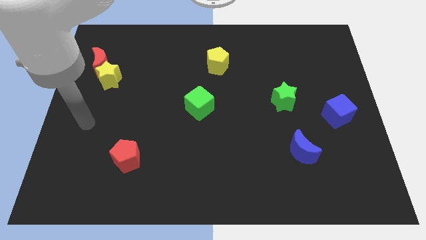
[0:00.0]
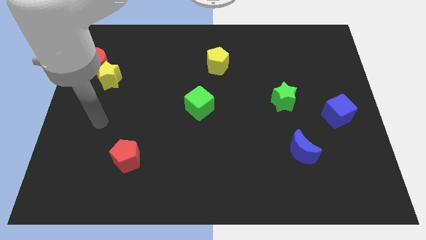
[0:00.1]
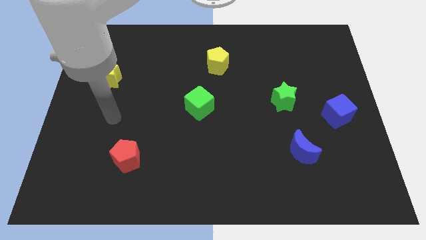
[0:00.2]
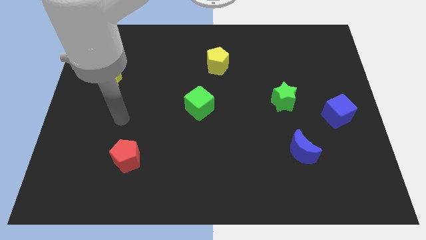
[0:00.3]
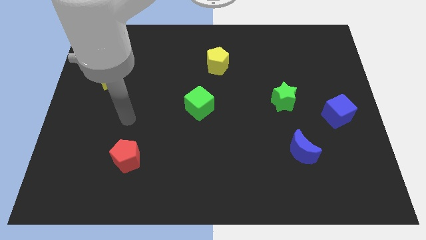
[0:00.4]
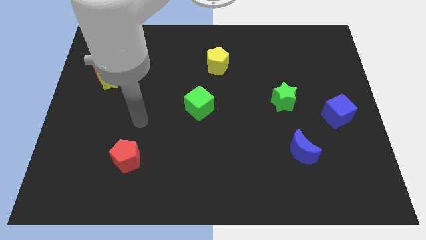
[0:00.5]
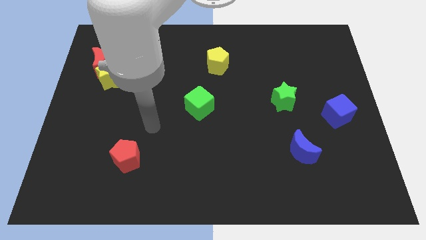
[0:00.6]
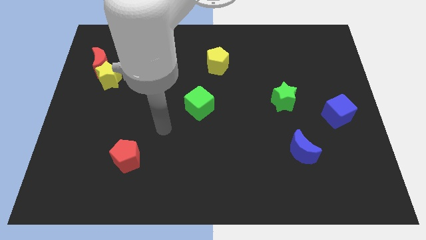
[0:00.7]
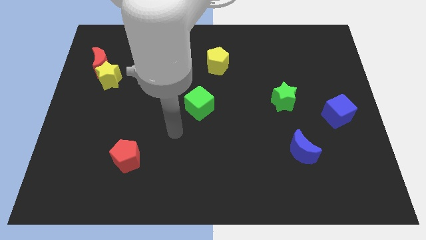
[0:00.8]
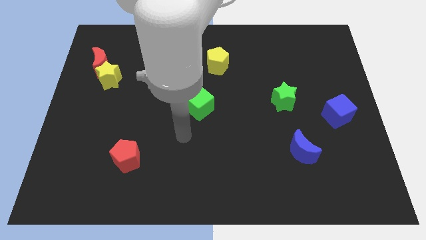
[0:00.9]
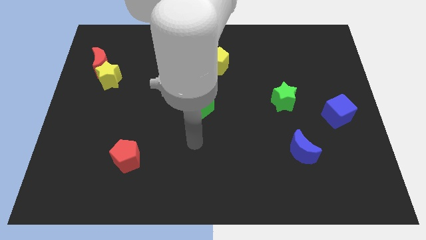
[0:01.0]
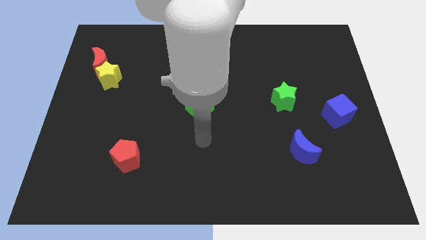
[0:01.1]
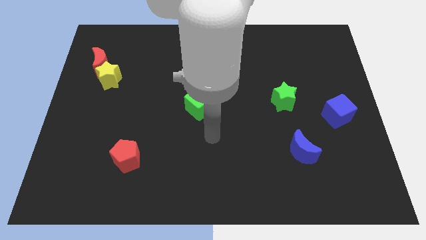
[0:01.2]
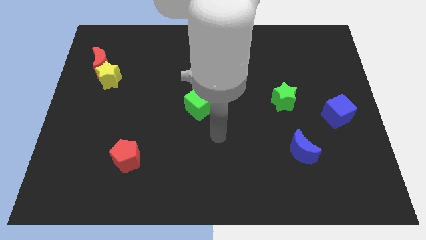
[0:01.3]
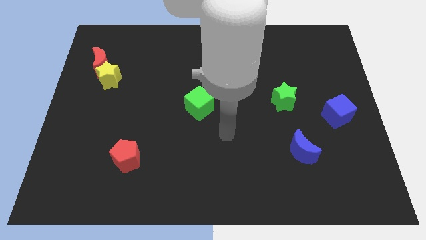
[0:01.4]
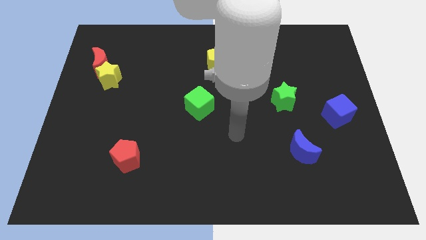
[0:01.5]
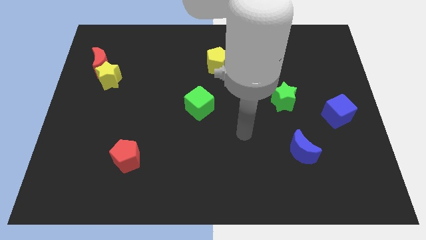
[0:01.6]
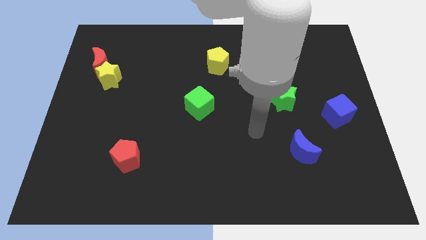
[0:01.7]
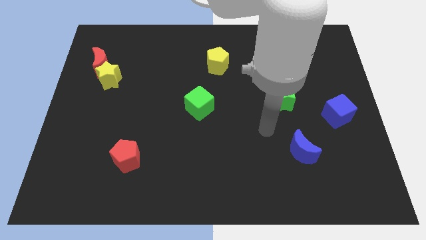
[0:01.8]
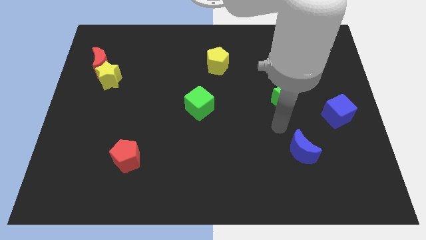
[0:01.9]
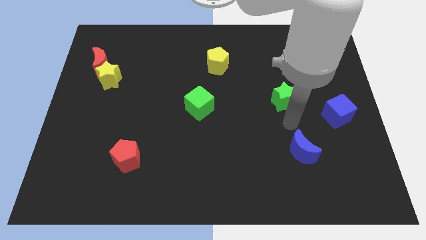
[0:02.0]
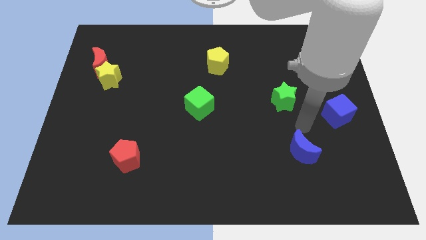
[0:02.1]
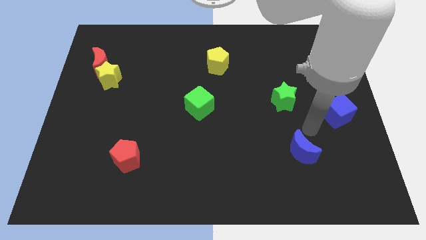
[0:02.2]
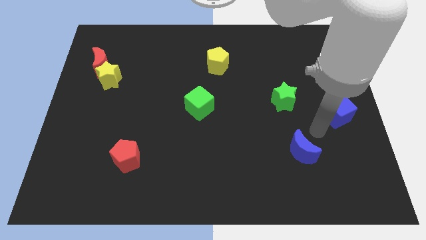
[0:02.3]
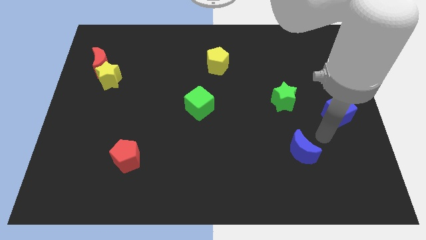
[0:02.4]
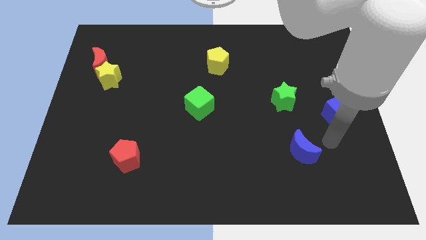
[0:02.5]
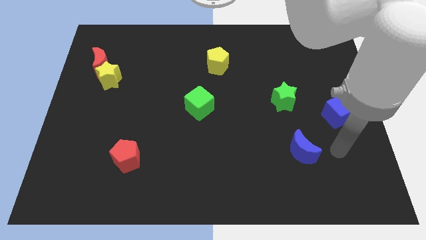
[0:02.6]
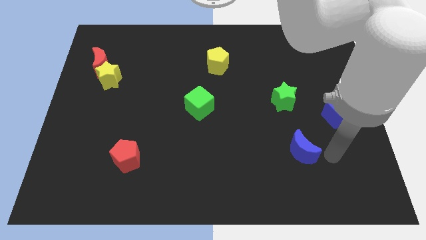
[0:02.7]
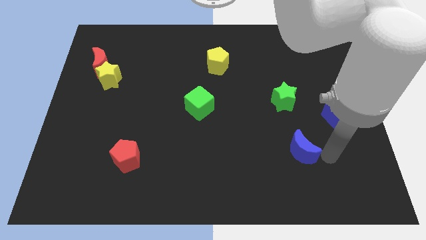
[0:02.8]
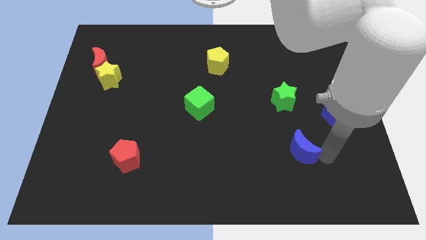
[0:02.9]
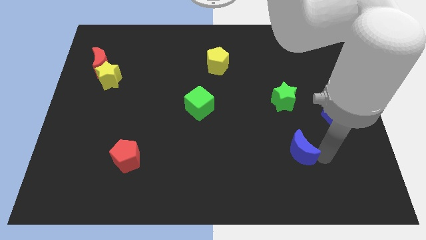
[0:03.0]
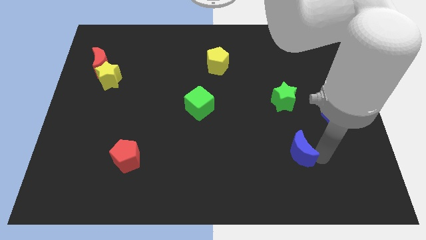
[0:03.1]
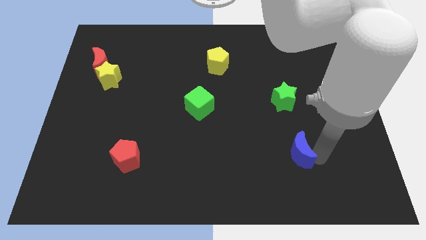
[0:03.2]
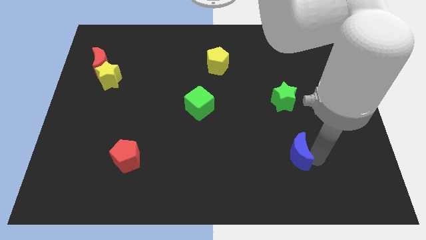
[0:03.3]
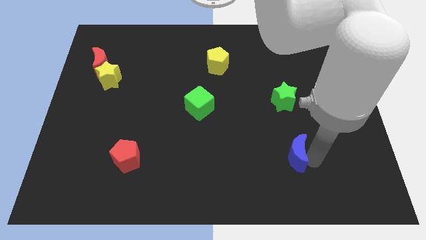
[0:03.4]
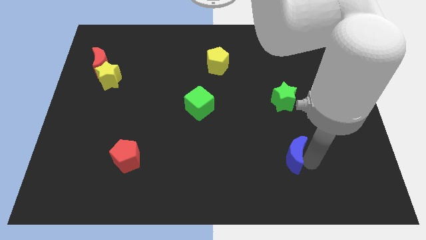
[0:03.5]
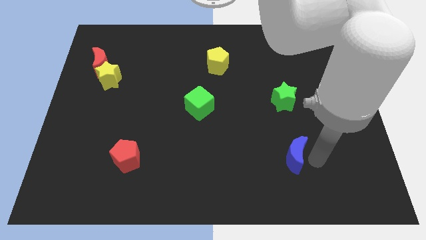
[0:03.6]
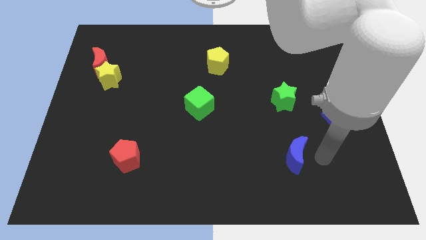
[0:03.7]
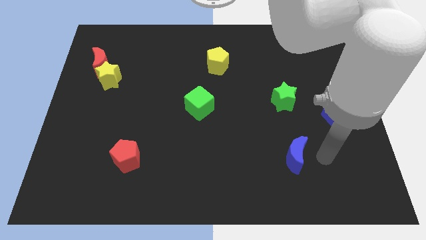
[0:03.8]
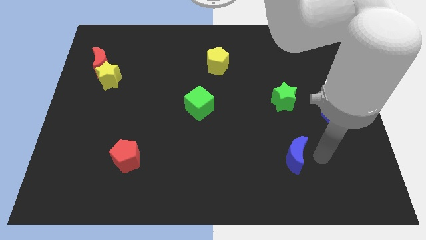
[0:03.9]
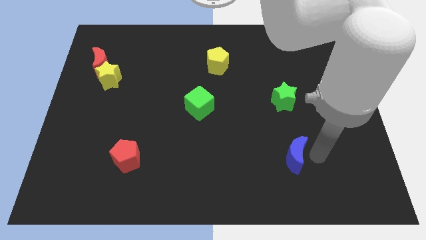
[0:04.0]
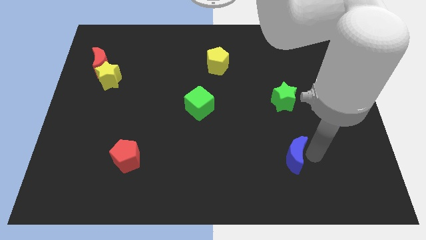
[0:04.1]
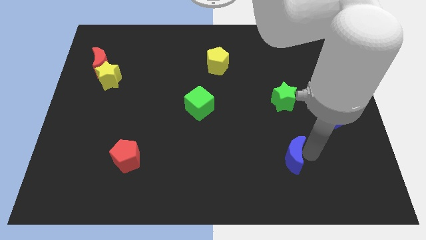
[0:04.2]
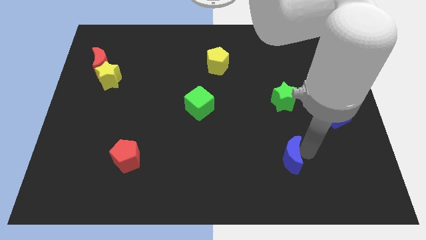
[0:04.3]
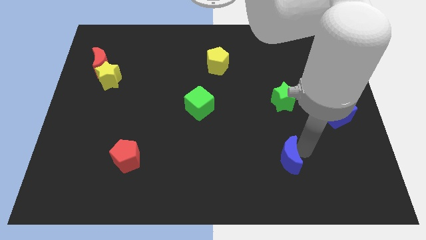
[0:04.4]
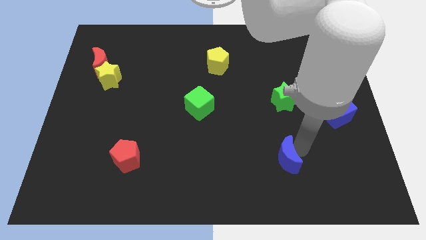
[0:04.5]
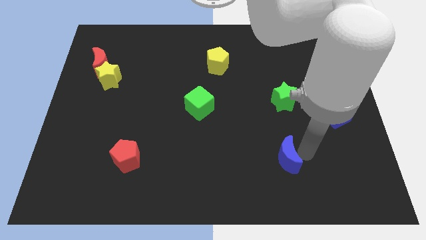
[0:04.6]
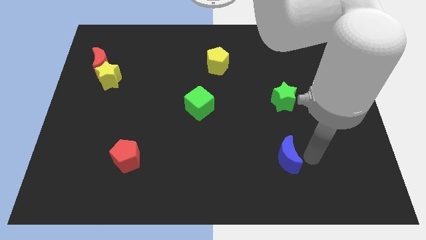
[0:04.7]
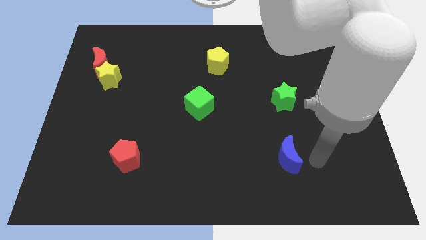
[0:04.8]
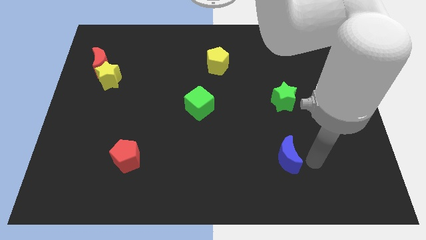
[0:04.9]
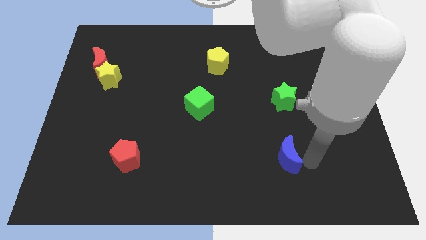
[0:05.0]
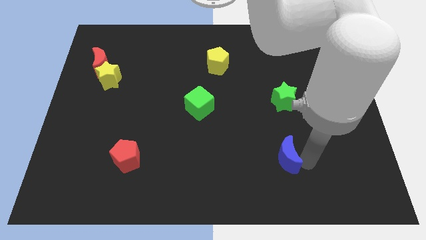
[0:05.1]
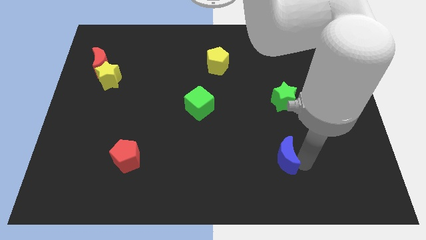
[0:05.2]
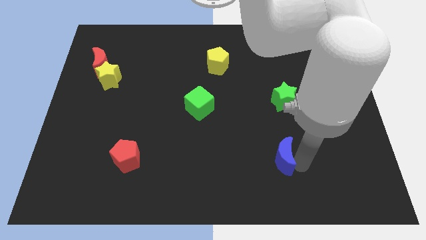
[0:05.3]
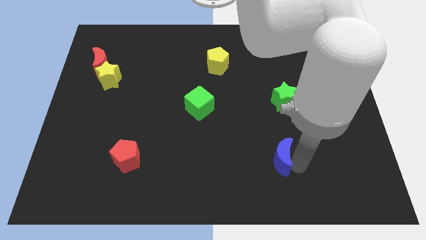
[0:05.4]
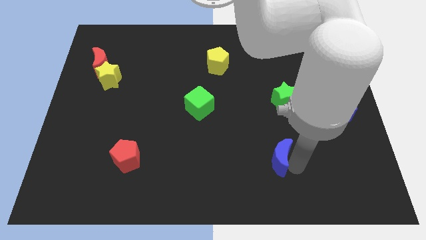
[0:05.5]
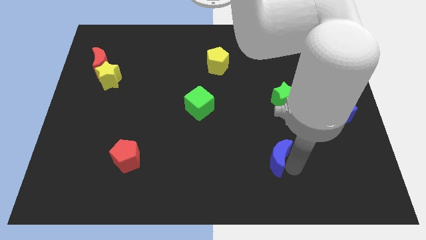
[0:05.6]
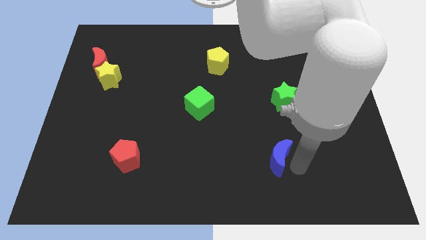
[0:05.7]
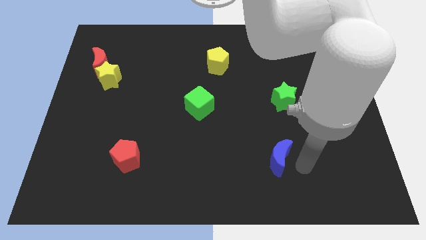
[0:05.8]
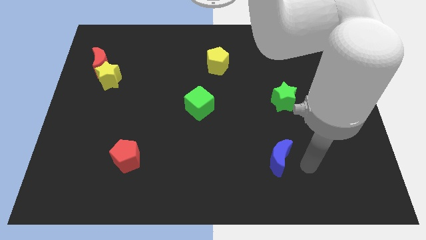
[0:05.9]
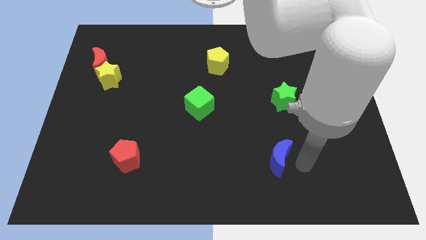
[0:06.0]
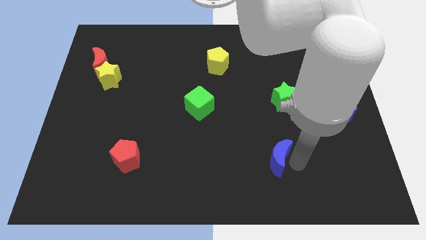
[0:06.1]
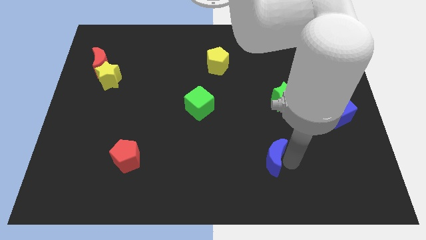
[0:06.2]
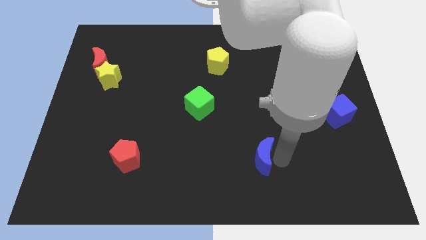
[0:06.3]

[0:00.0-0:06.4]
move the blue moon a bit to the left

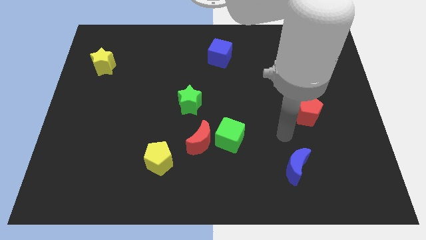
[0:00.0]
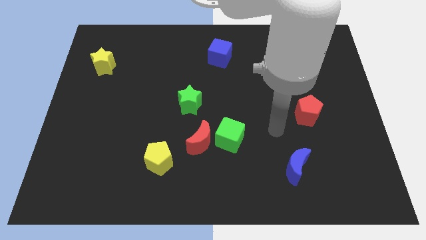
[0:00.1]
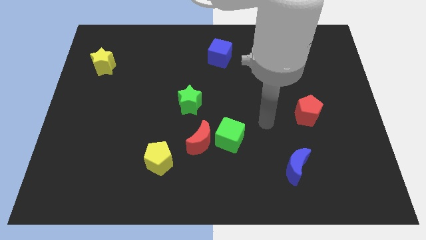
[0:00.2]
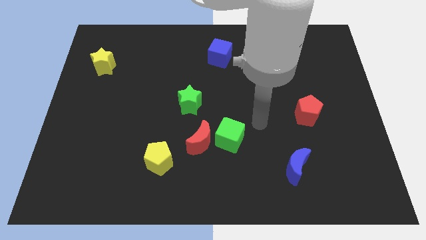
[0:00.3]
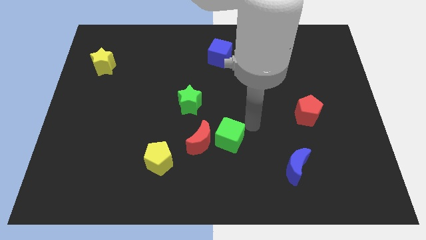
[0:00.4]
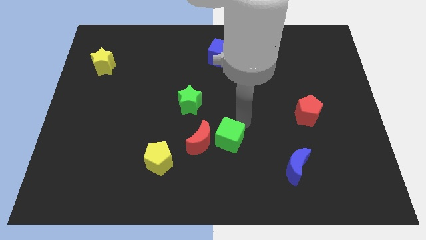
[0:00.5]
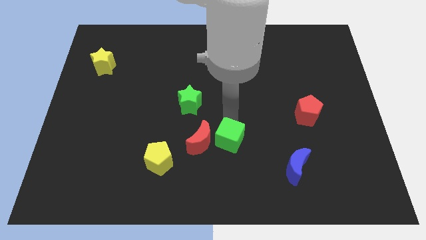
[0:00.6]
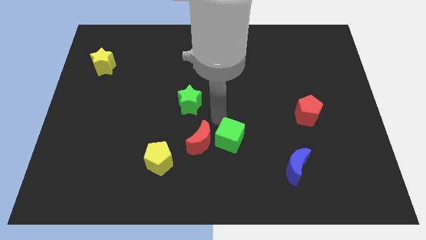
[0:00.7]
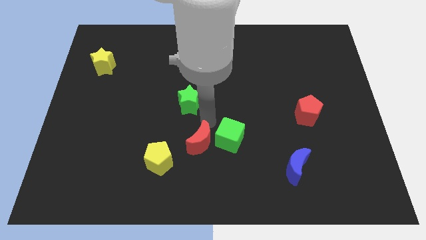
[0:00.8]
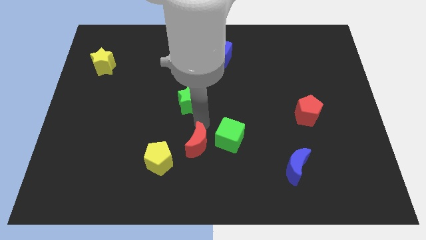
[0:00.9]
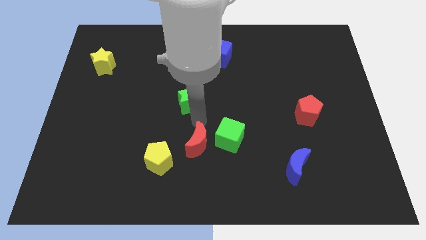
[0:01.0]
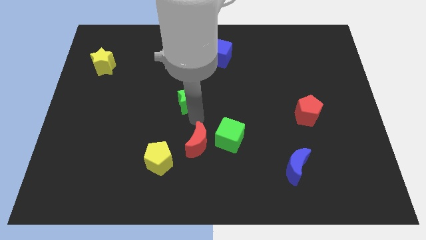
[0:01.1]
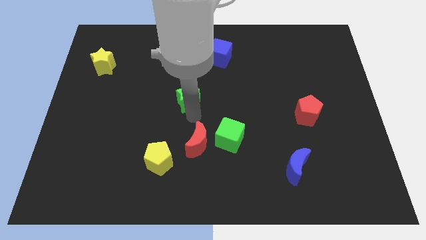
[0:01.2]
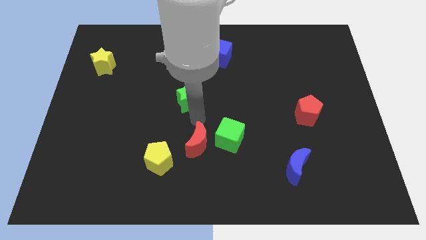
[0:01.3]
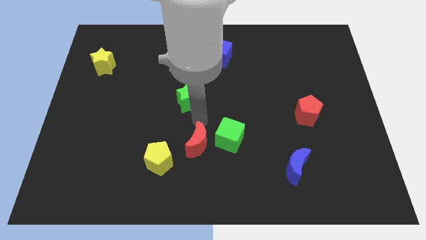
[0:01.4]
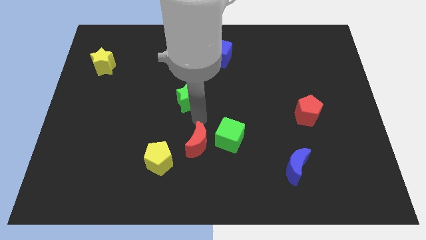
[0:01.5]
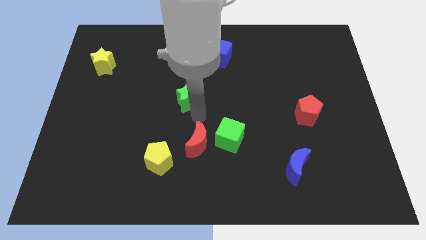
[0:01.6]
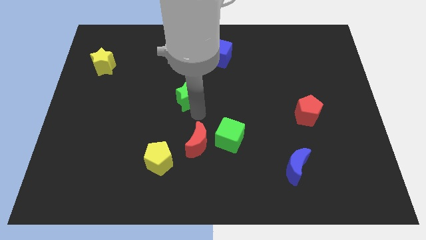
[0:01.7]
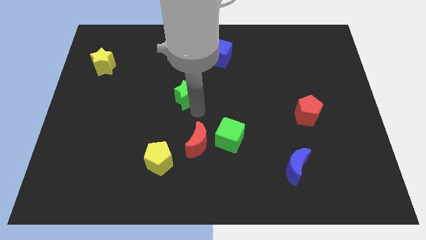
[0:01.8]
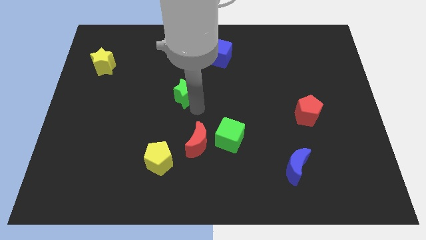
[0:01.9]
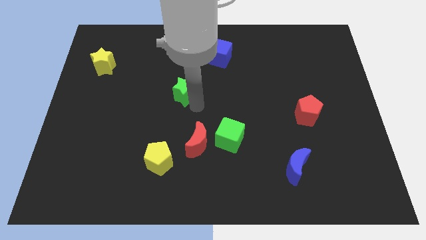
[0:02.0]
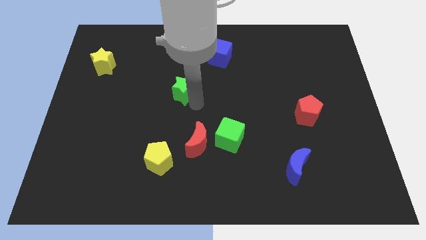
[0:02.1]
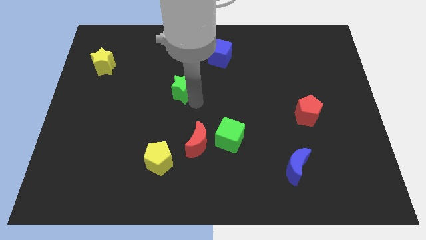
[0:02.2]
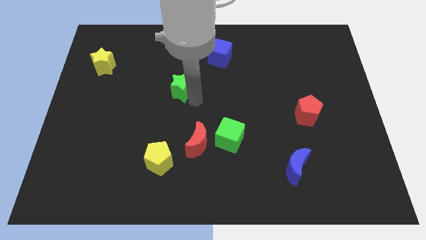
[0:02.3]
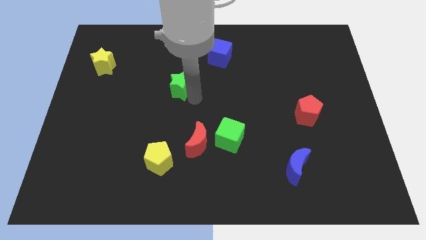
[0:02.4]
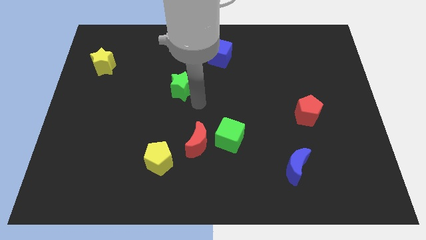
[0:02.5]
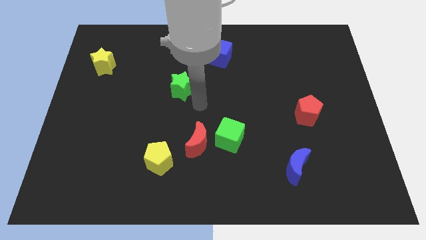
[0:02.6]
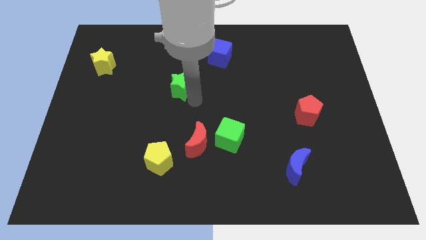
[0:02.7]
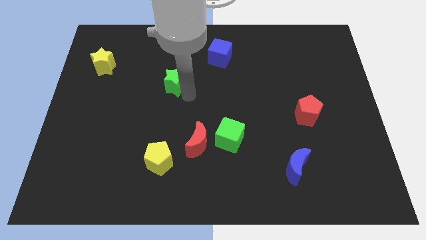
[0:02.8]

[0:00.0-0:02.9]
push the green star up and then left a bit
